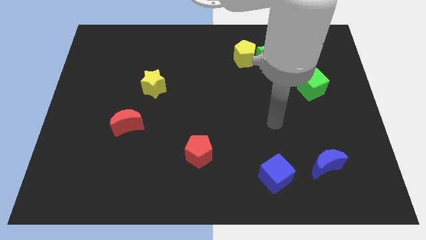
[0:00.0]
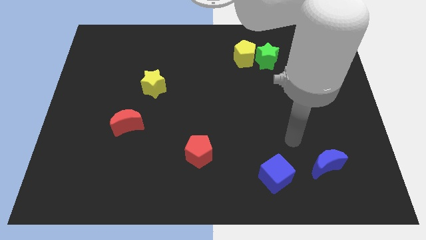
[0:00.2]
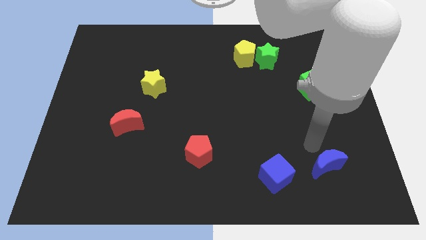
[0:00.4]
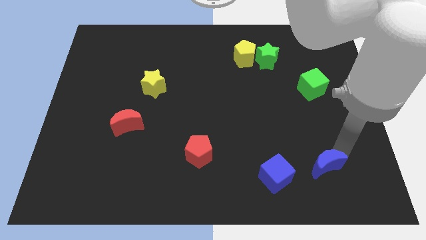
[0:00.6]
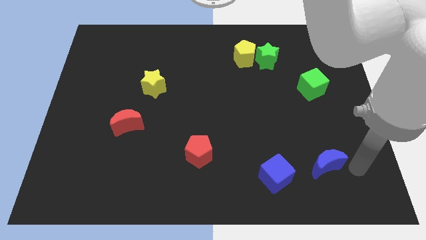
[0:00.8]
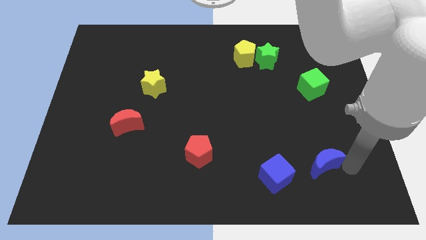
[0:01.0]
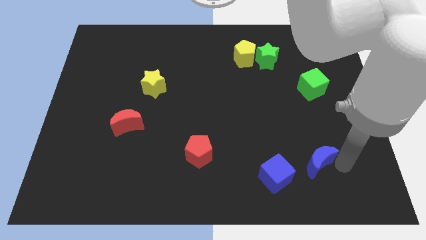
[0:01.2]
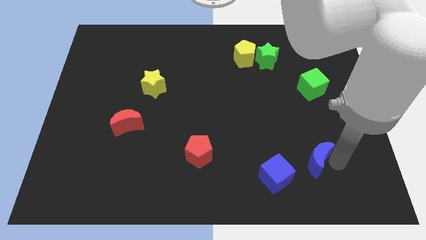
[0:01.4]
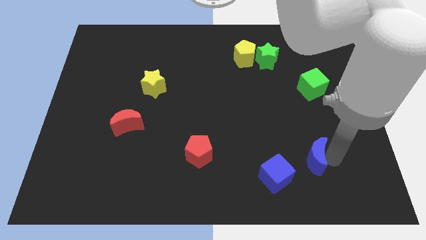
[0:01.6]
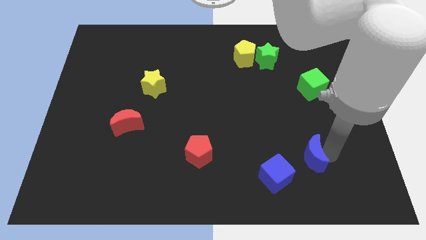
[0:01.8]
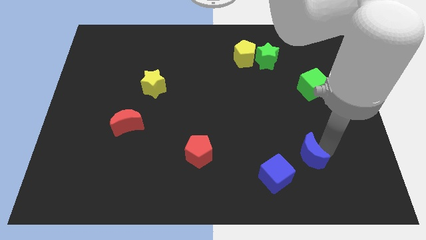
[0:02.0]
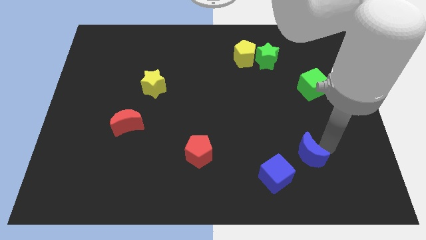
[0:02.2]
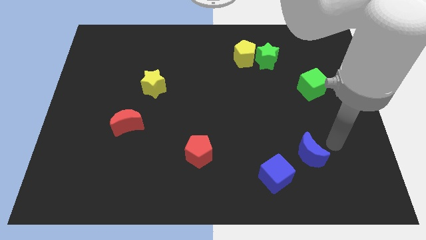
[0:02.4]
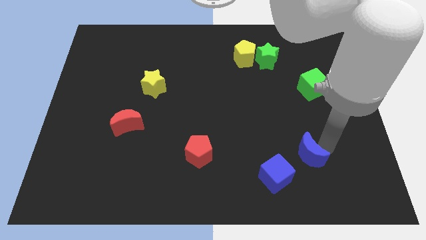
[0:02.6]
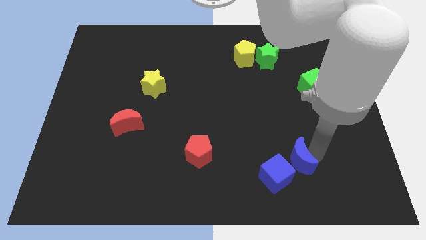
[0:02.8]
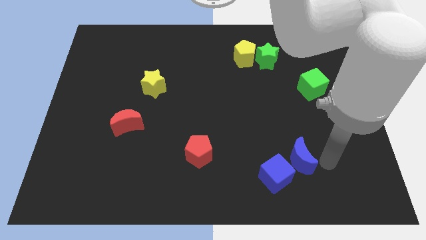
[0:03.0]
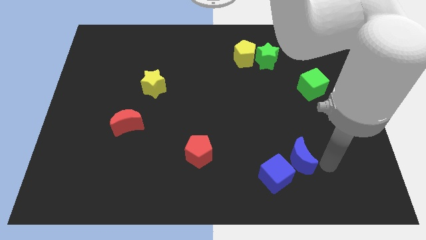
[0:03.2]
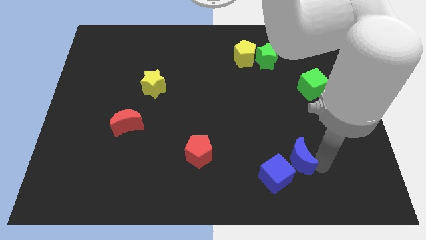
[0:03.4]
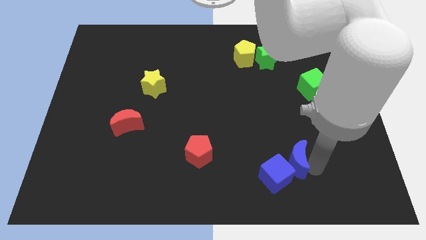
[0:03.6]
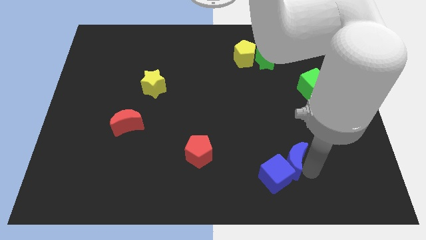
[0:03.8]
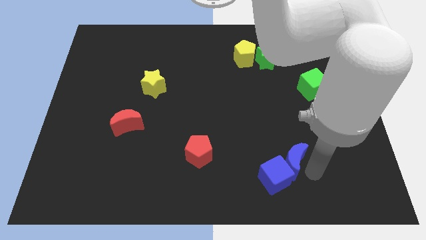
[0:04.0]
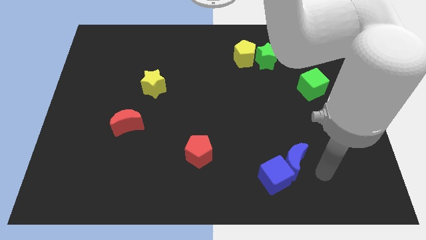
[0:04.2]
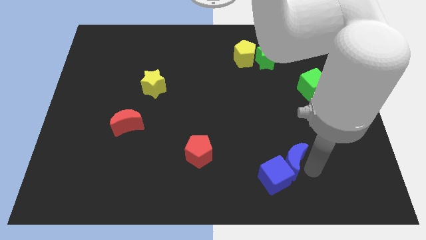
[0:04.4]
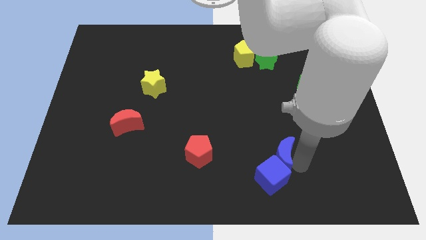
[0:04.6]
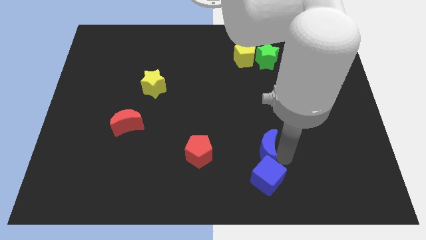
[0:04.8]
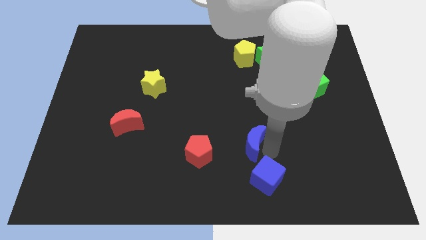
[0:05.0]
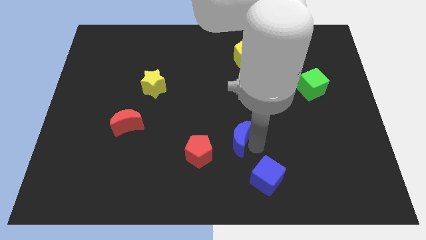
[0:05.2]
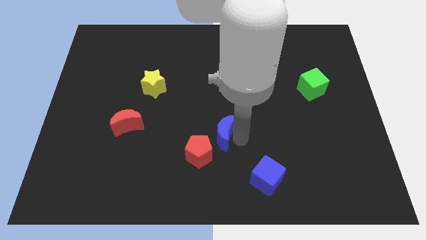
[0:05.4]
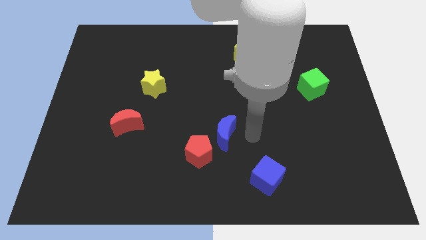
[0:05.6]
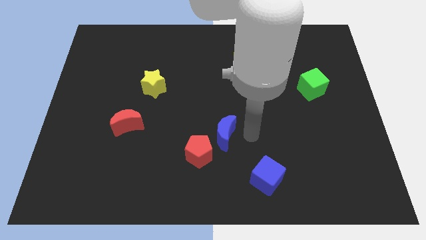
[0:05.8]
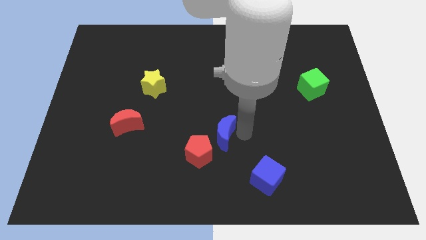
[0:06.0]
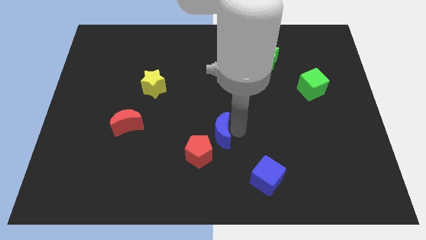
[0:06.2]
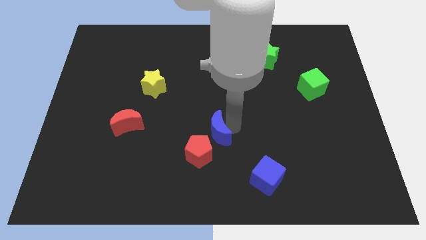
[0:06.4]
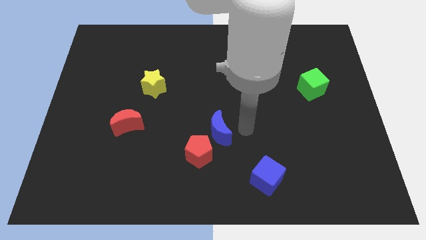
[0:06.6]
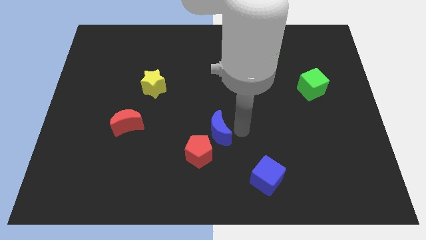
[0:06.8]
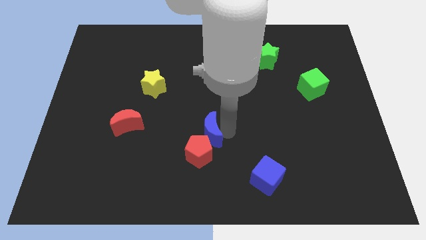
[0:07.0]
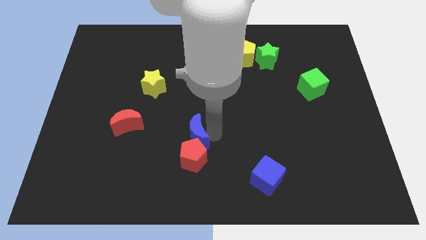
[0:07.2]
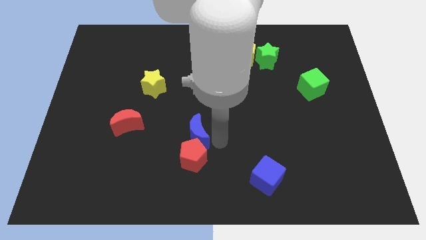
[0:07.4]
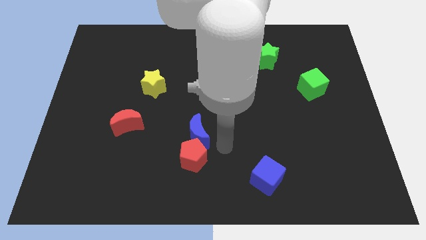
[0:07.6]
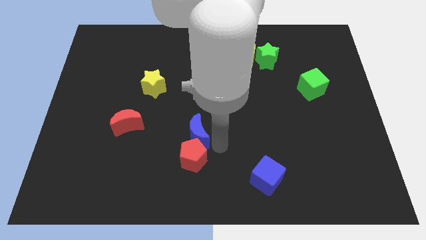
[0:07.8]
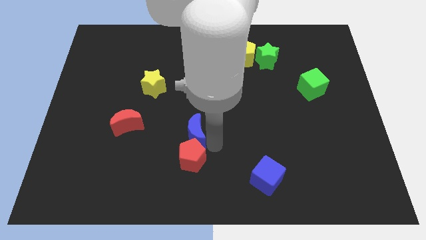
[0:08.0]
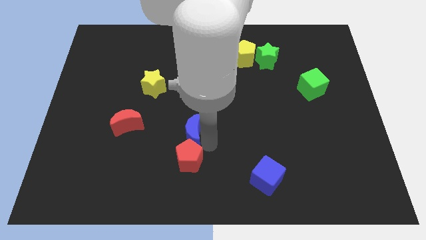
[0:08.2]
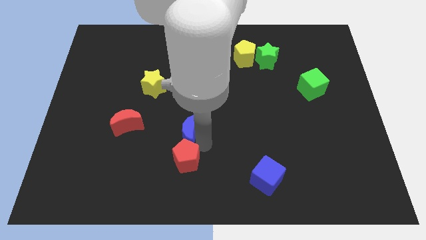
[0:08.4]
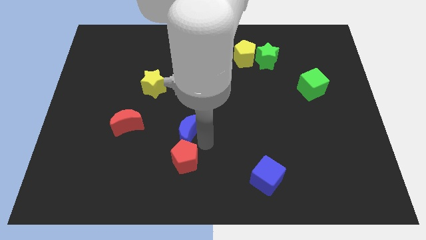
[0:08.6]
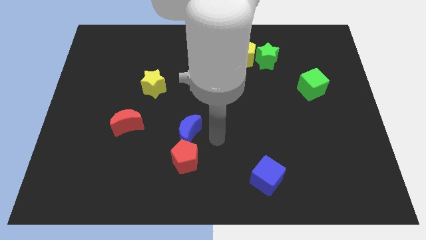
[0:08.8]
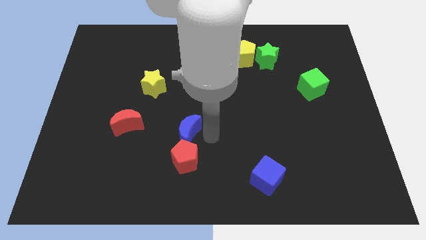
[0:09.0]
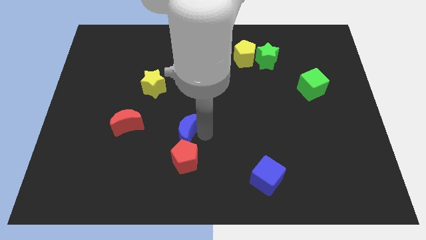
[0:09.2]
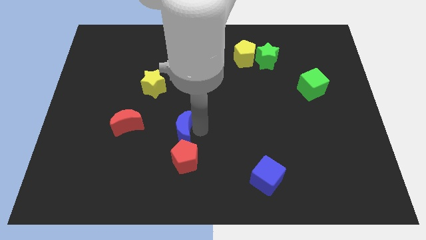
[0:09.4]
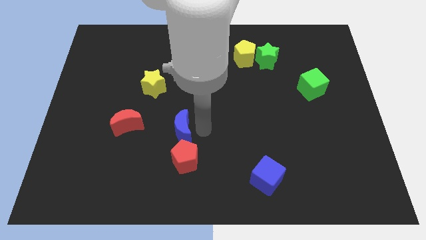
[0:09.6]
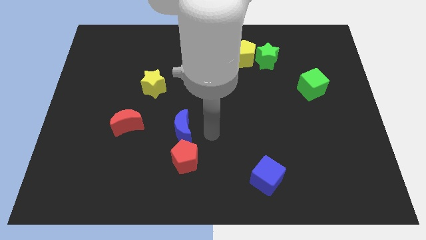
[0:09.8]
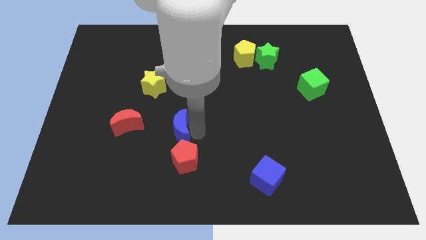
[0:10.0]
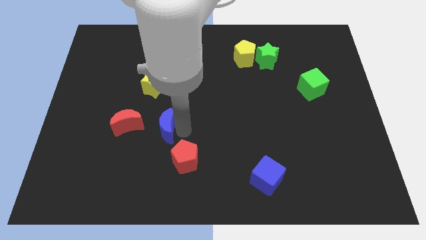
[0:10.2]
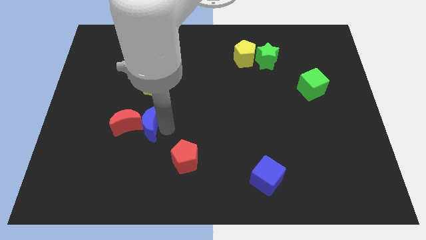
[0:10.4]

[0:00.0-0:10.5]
push the blue moon towards the red moon

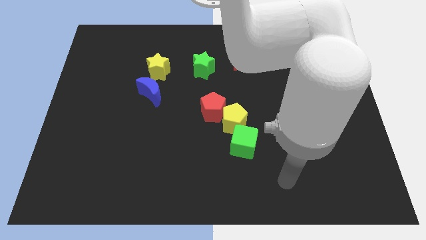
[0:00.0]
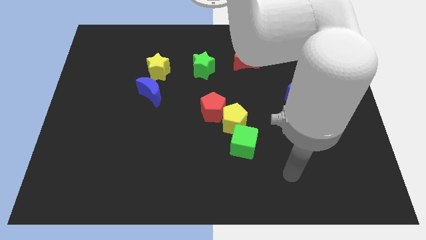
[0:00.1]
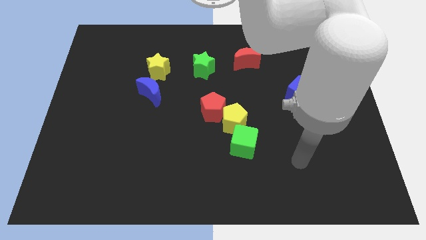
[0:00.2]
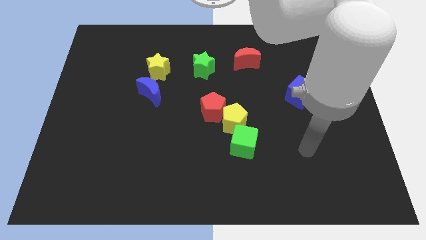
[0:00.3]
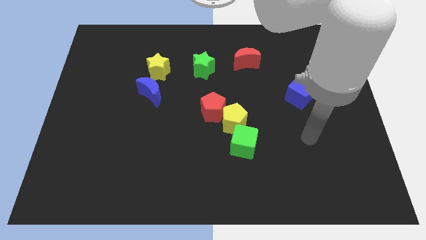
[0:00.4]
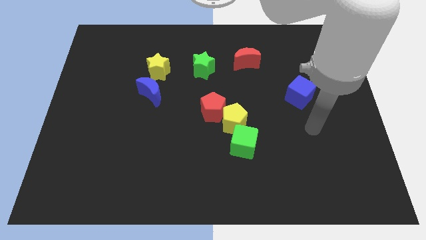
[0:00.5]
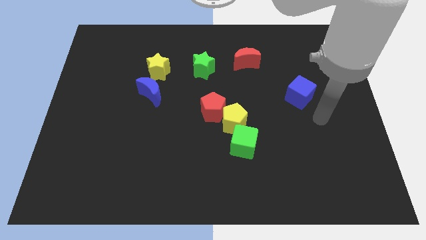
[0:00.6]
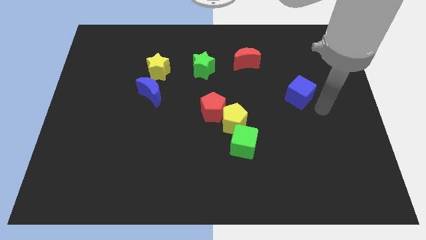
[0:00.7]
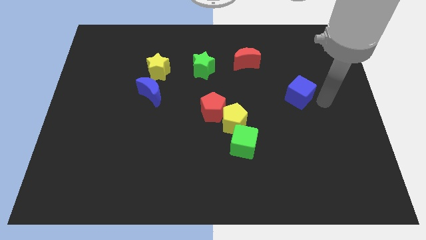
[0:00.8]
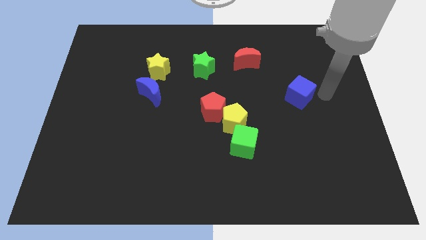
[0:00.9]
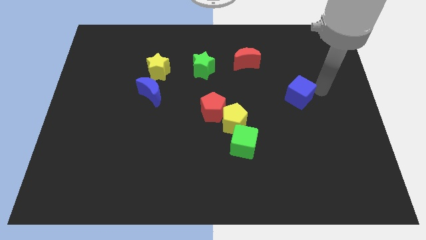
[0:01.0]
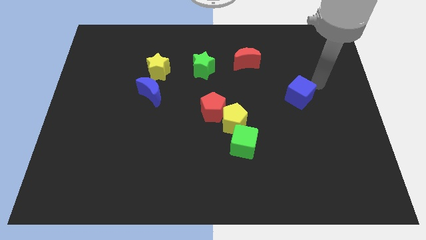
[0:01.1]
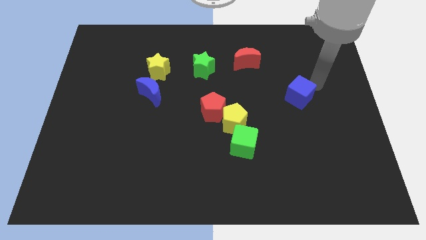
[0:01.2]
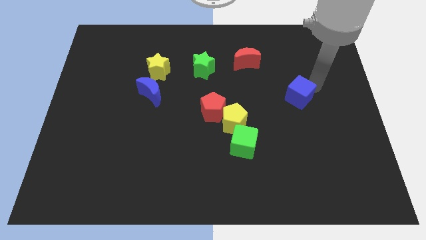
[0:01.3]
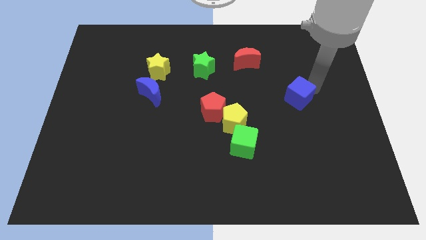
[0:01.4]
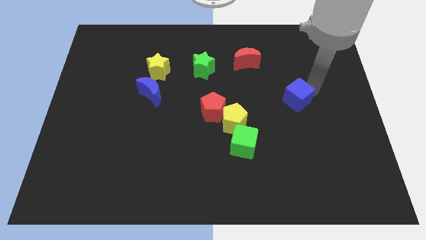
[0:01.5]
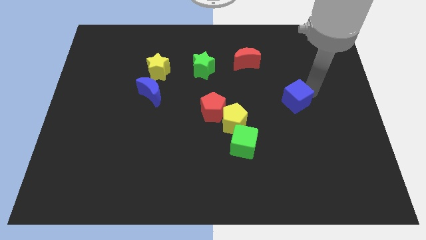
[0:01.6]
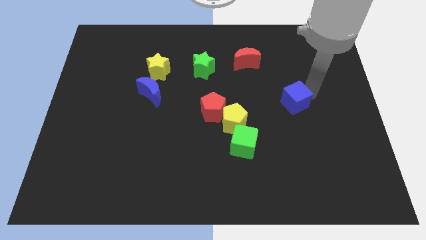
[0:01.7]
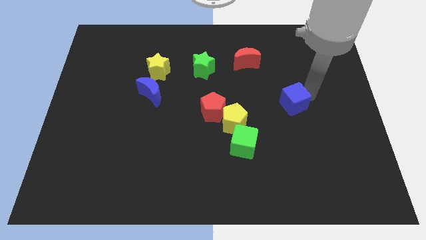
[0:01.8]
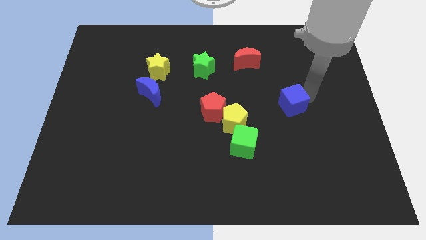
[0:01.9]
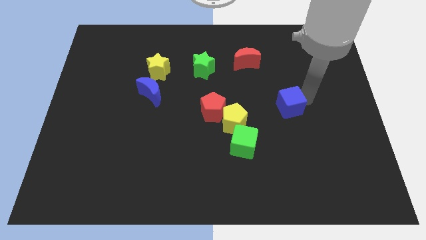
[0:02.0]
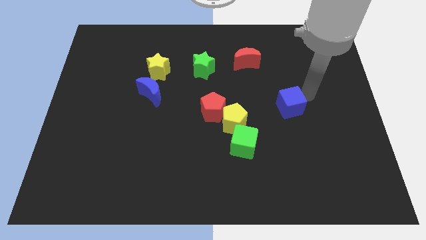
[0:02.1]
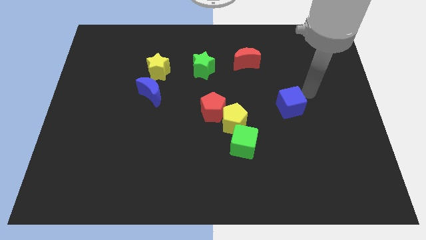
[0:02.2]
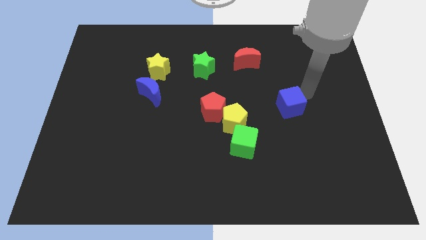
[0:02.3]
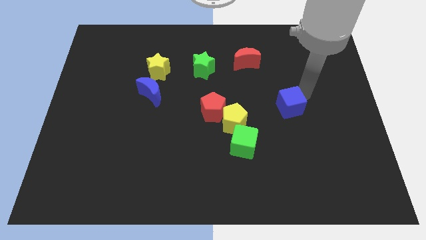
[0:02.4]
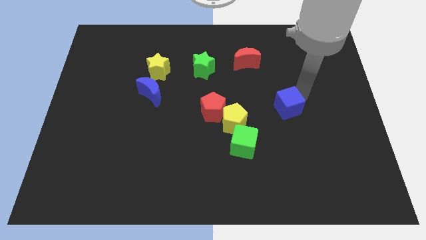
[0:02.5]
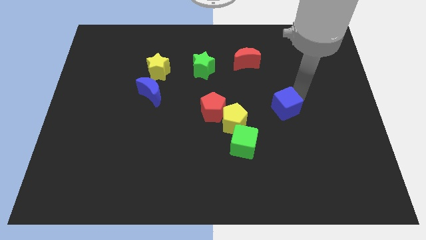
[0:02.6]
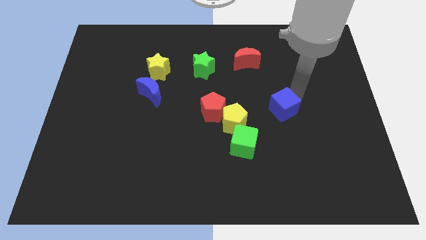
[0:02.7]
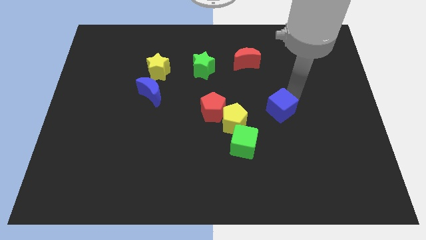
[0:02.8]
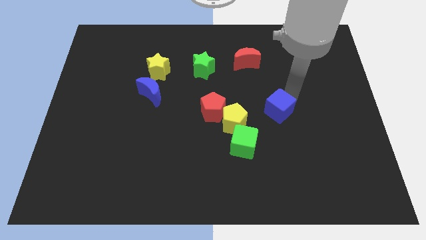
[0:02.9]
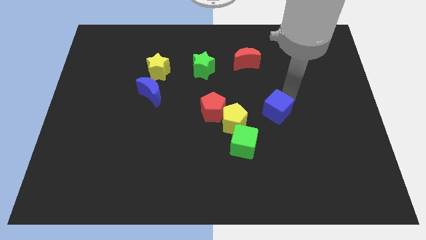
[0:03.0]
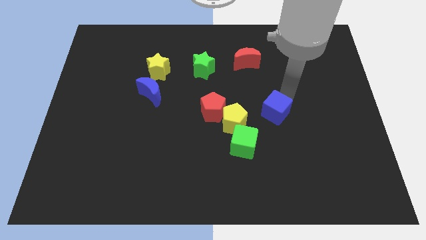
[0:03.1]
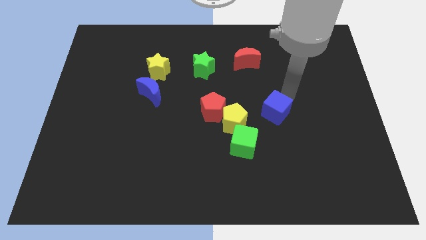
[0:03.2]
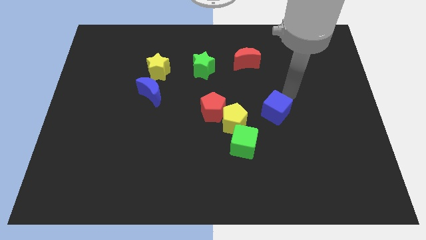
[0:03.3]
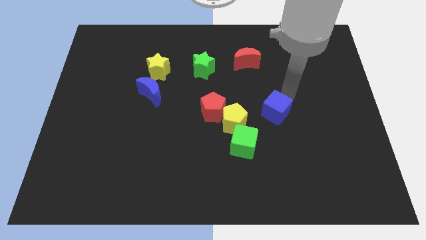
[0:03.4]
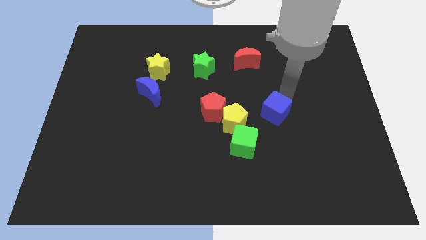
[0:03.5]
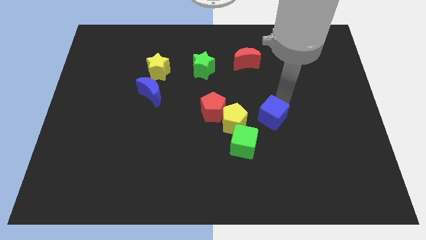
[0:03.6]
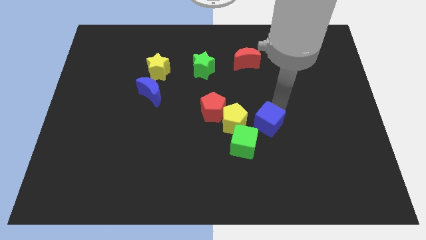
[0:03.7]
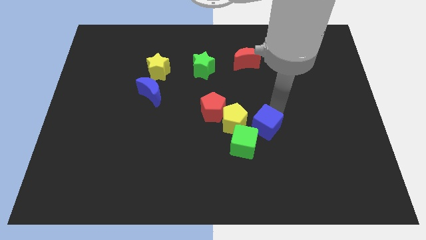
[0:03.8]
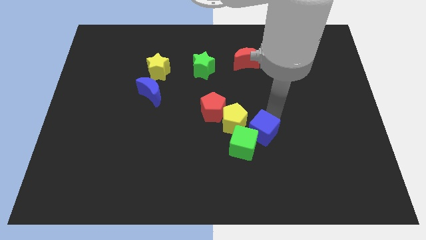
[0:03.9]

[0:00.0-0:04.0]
put the blue cube towards the green cube
